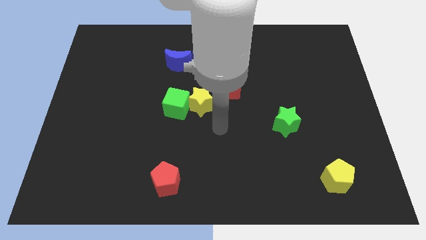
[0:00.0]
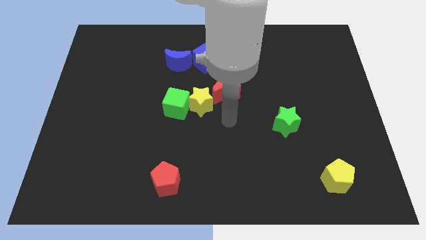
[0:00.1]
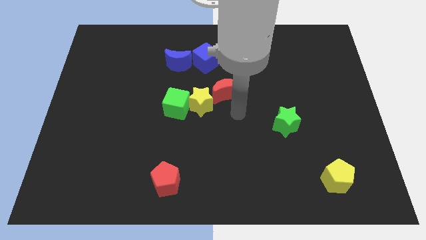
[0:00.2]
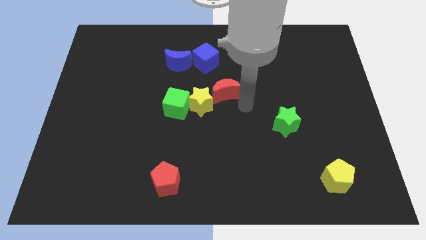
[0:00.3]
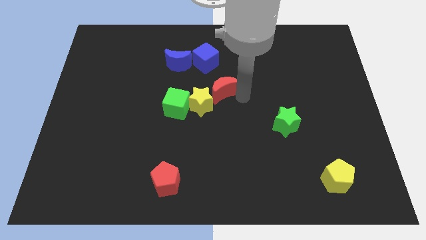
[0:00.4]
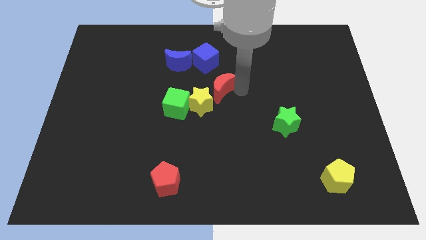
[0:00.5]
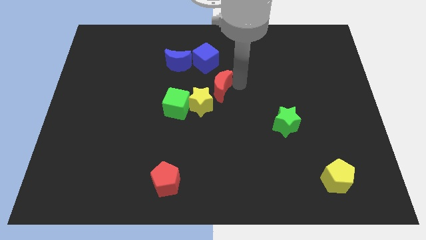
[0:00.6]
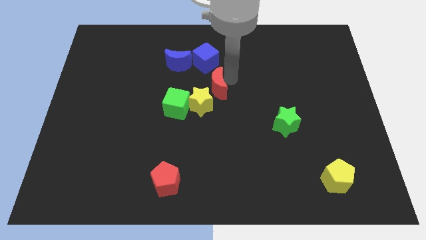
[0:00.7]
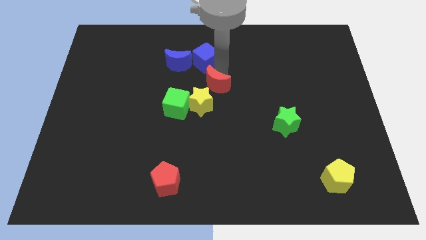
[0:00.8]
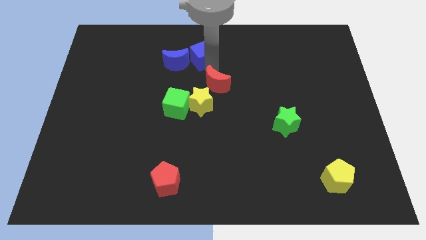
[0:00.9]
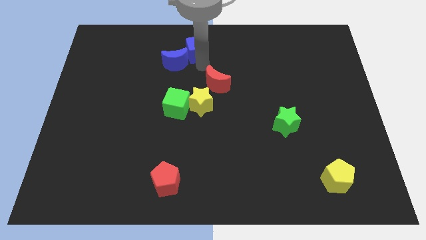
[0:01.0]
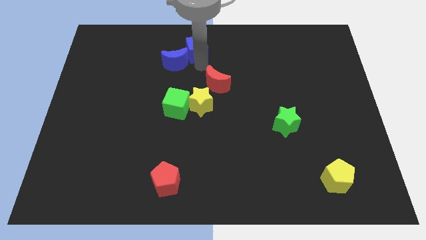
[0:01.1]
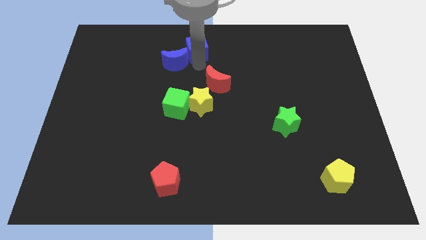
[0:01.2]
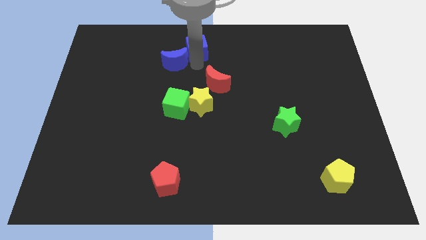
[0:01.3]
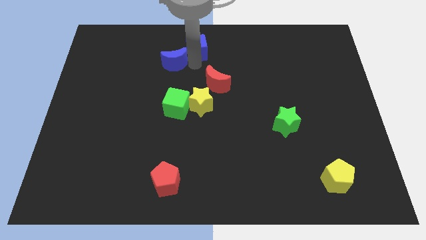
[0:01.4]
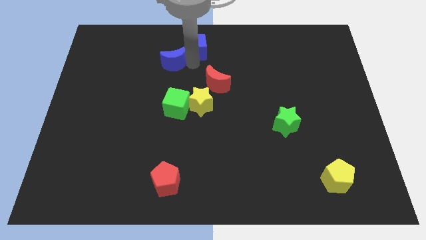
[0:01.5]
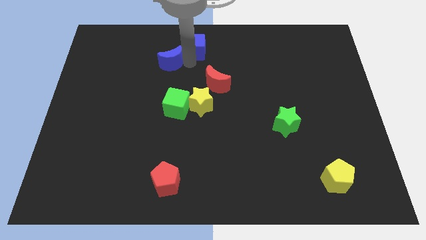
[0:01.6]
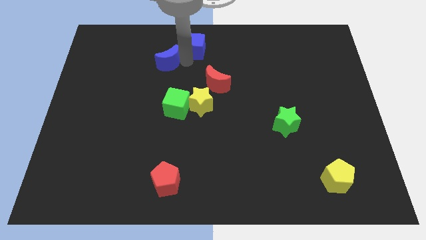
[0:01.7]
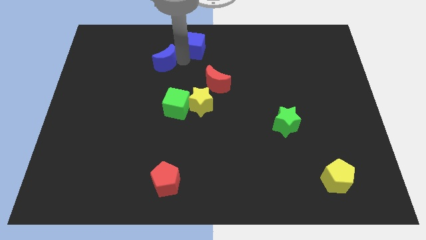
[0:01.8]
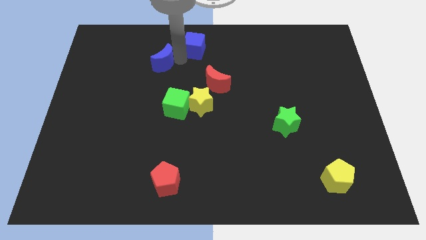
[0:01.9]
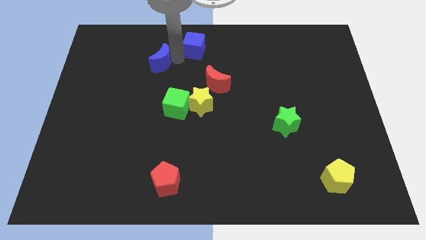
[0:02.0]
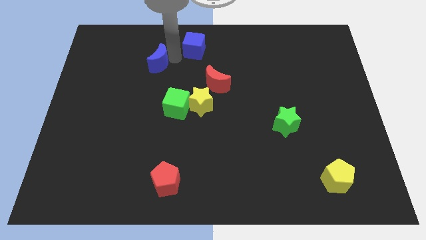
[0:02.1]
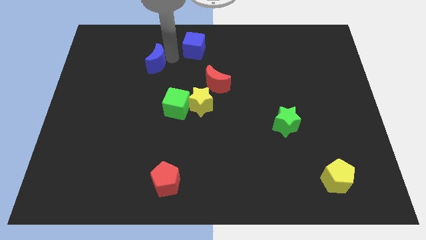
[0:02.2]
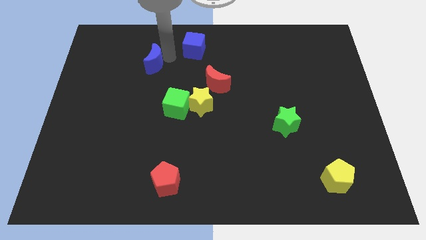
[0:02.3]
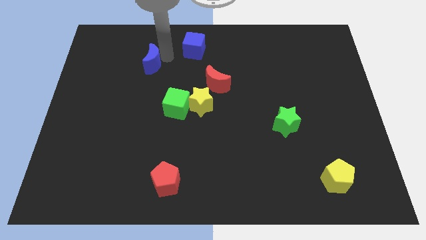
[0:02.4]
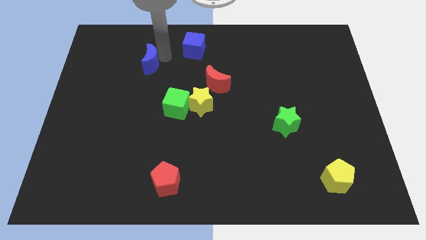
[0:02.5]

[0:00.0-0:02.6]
slightly slide the blue moon to the left

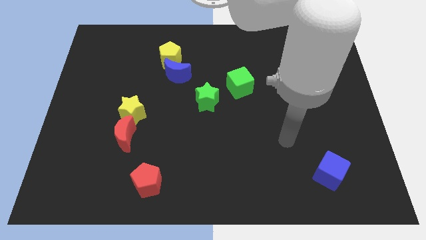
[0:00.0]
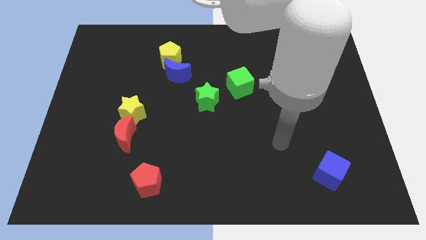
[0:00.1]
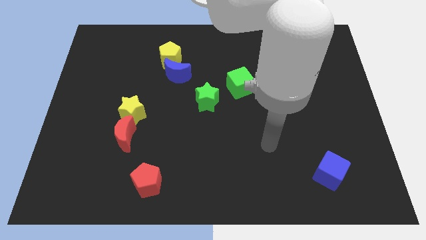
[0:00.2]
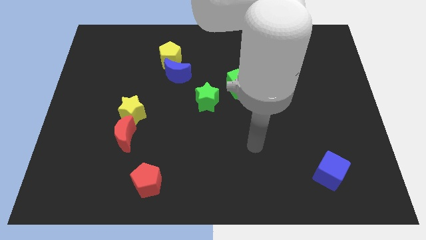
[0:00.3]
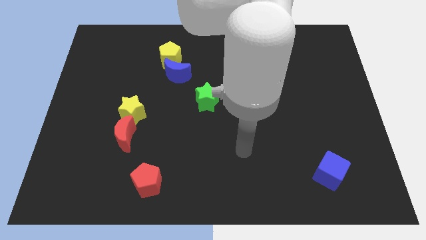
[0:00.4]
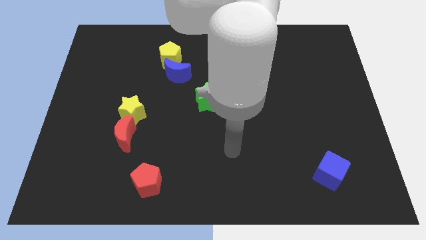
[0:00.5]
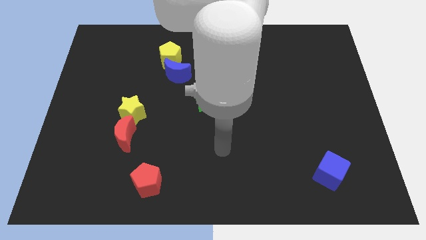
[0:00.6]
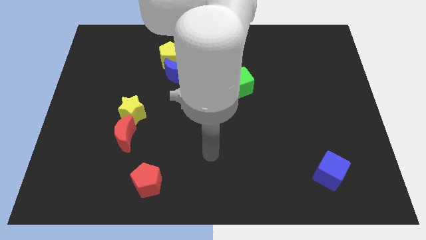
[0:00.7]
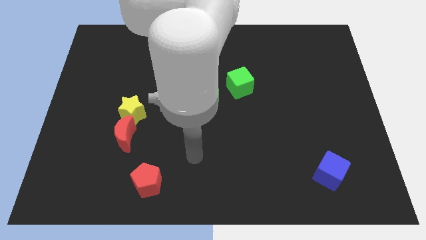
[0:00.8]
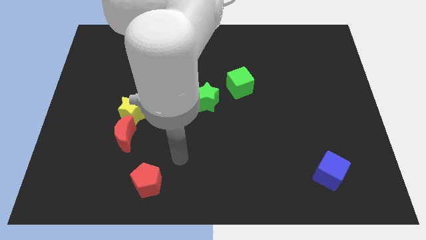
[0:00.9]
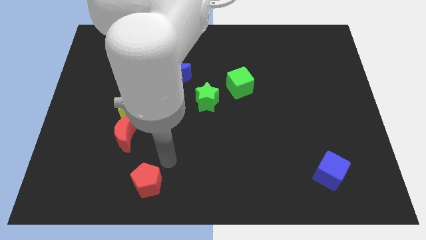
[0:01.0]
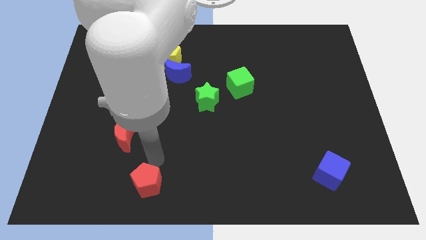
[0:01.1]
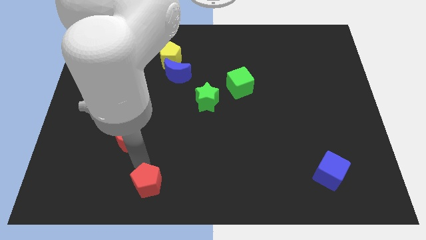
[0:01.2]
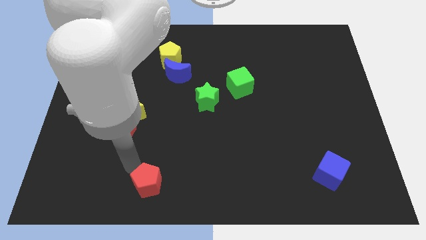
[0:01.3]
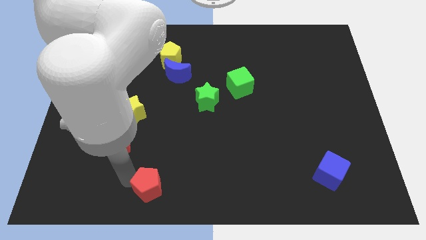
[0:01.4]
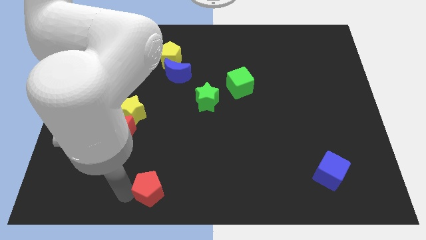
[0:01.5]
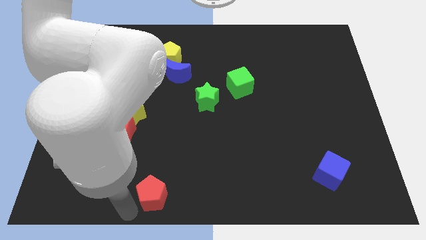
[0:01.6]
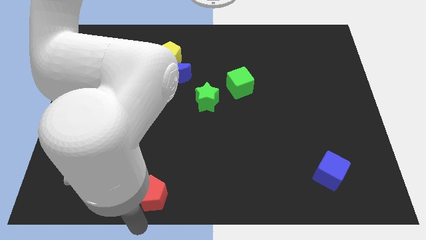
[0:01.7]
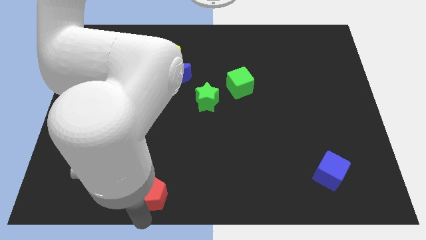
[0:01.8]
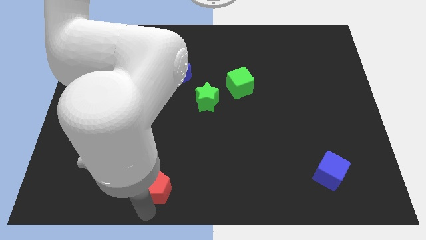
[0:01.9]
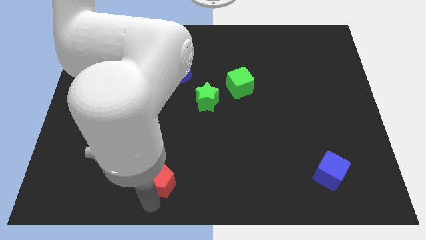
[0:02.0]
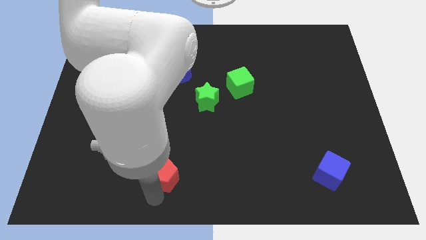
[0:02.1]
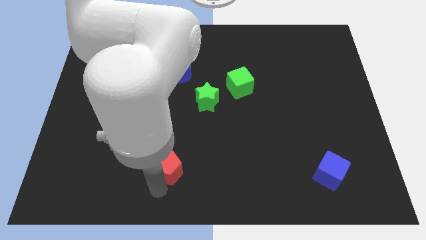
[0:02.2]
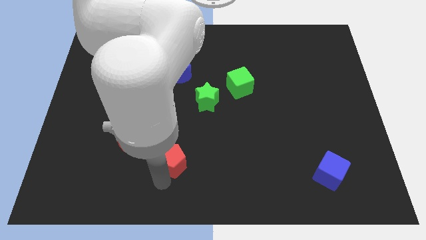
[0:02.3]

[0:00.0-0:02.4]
move the red pentagon a little bit up and then to the right

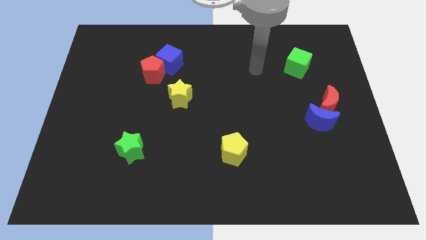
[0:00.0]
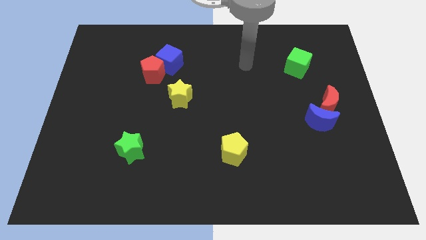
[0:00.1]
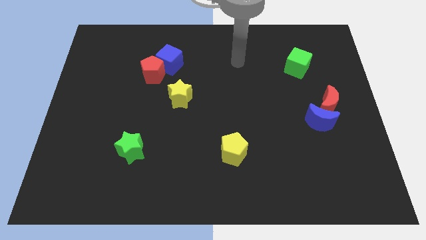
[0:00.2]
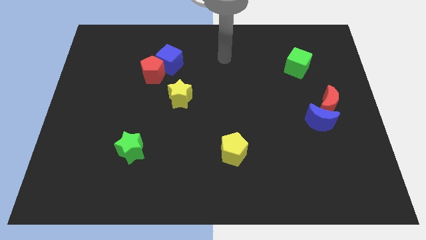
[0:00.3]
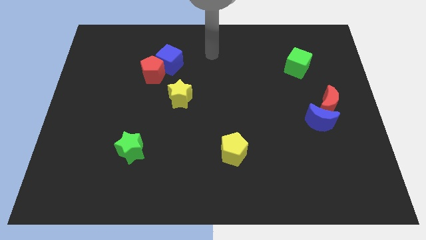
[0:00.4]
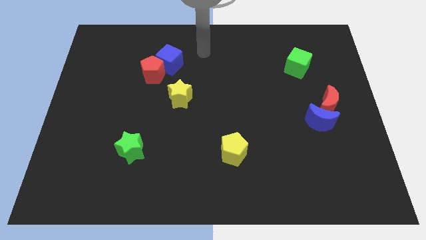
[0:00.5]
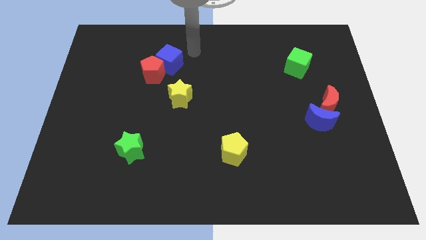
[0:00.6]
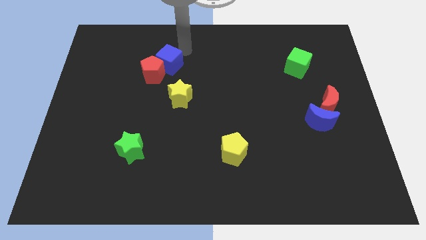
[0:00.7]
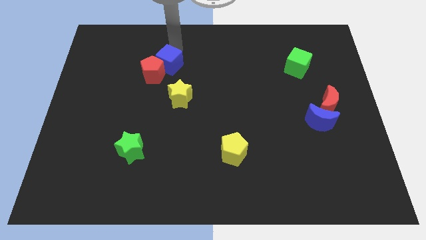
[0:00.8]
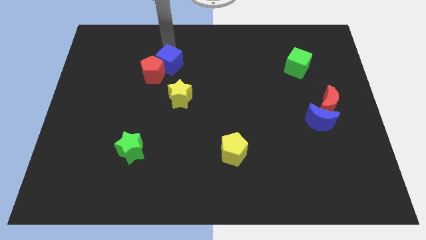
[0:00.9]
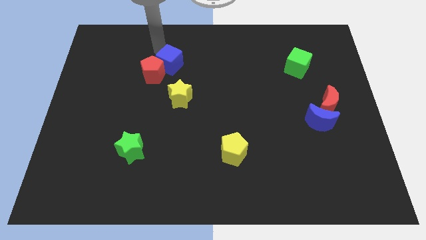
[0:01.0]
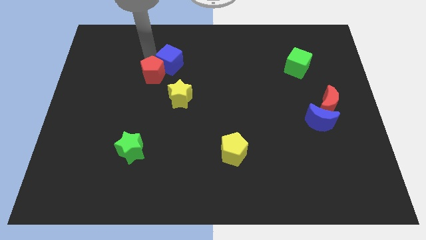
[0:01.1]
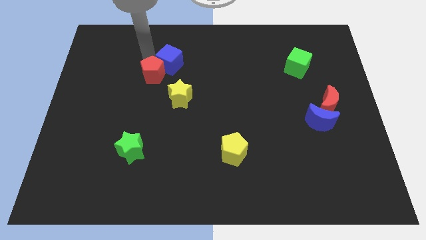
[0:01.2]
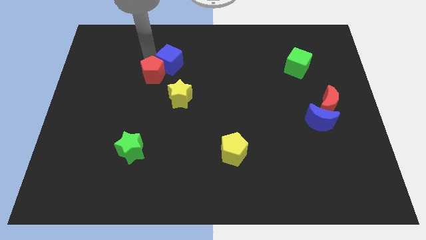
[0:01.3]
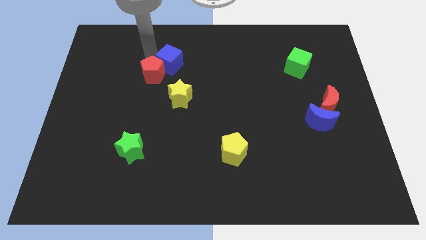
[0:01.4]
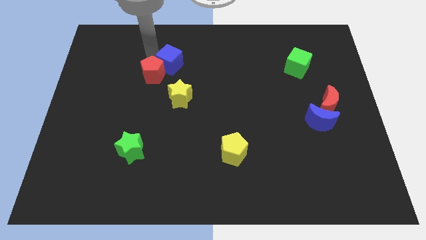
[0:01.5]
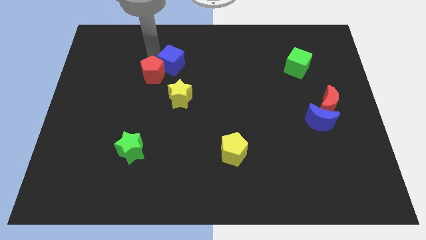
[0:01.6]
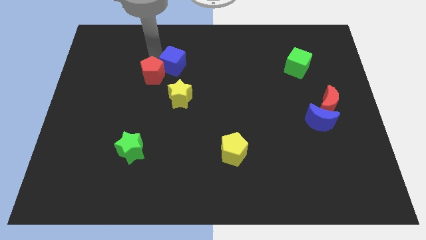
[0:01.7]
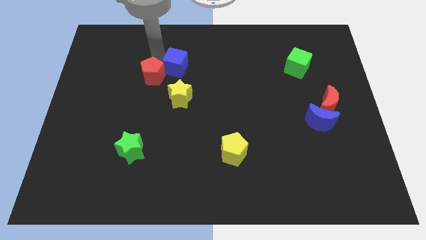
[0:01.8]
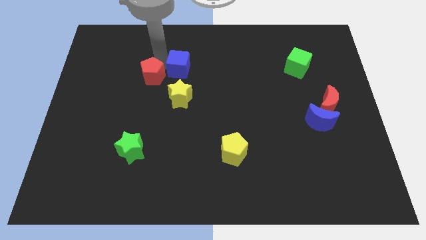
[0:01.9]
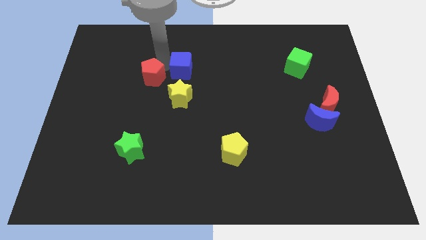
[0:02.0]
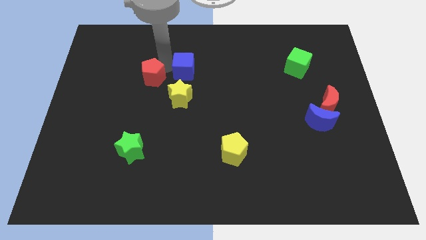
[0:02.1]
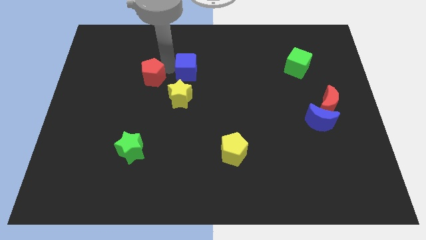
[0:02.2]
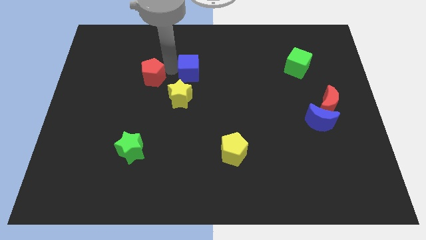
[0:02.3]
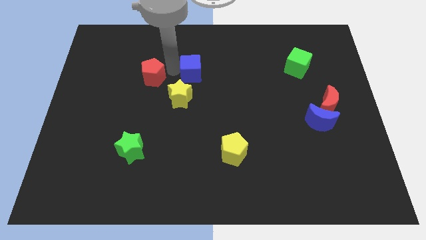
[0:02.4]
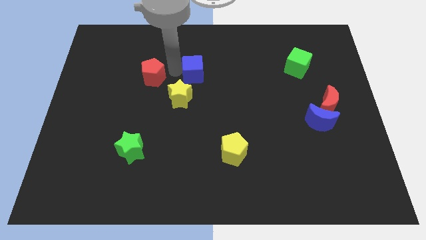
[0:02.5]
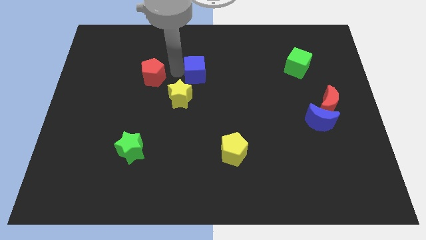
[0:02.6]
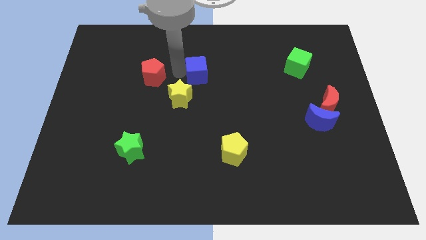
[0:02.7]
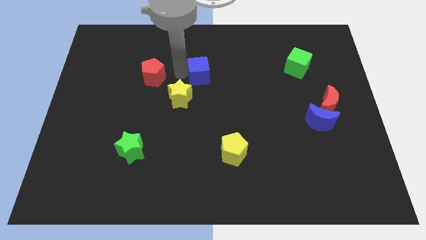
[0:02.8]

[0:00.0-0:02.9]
slide the blue cube somewhat to the right
